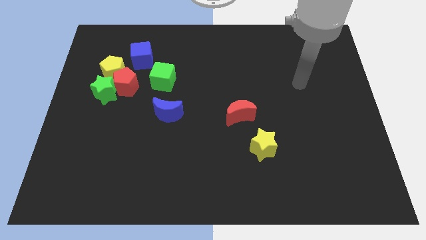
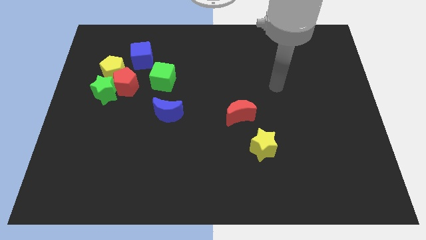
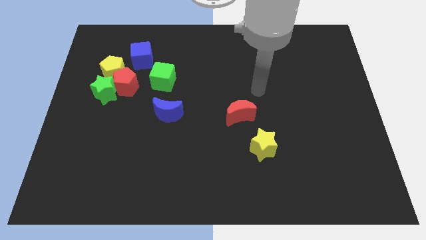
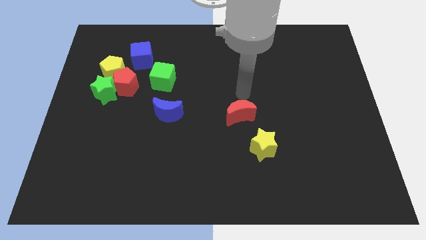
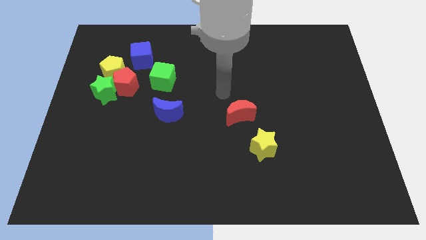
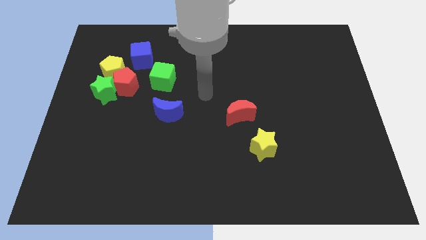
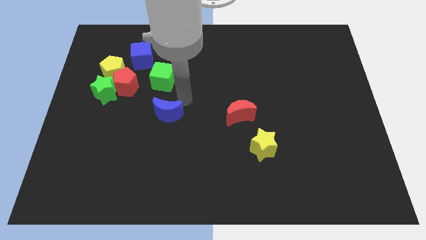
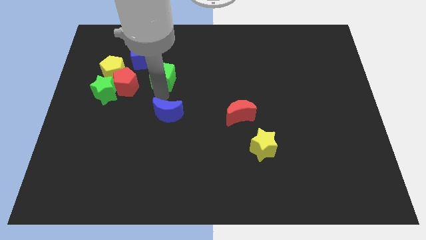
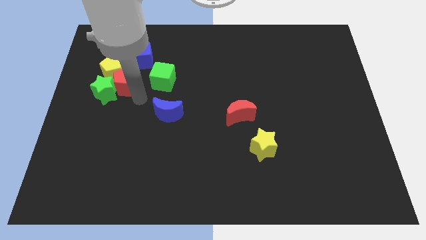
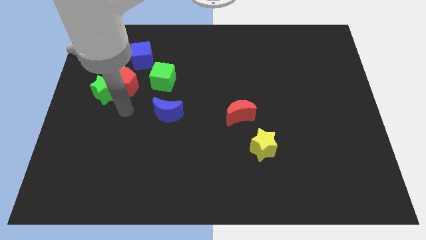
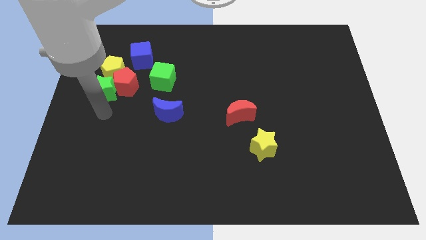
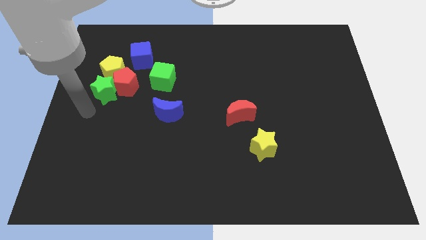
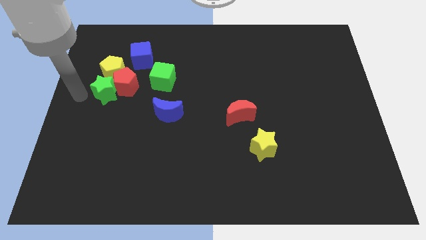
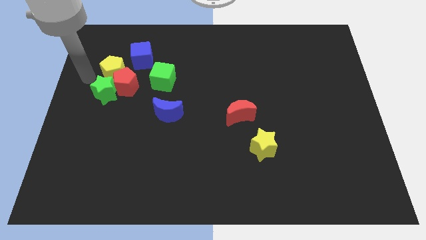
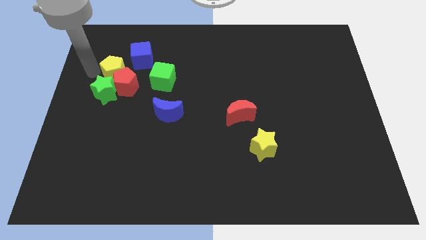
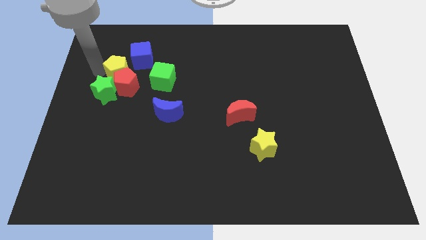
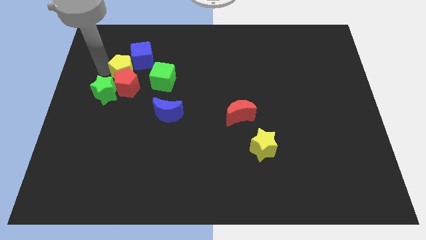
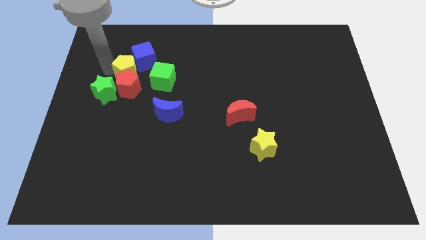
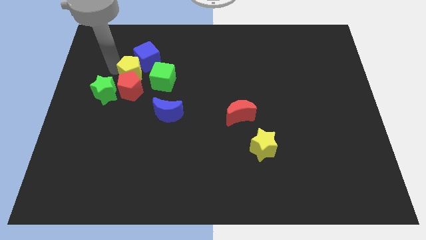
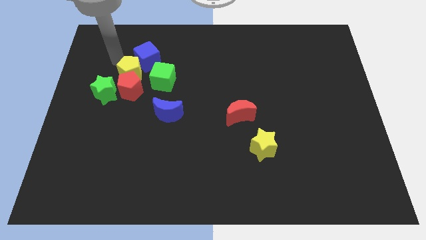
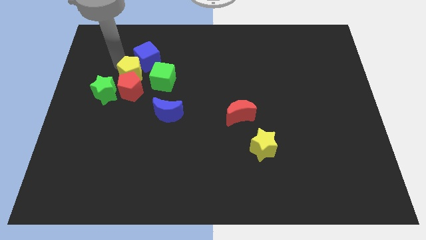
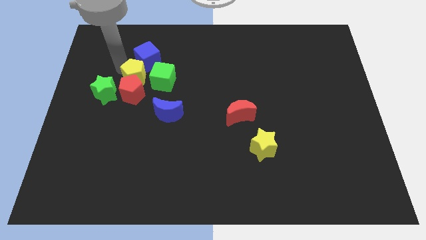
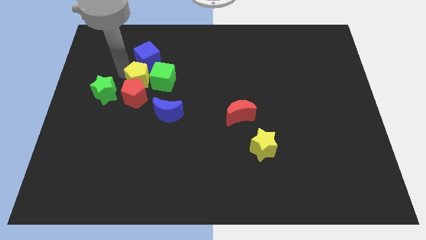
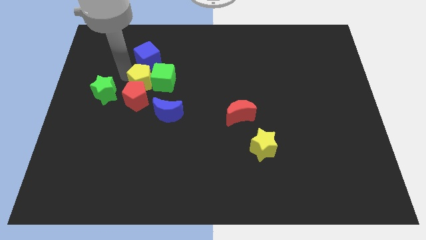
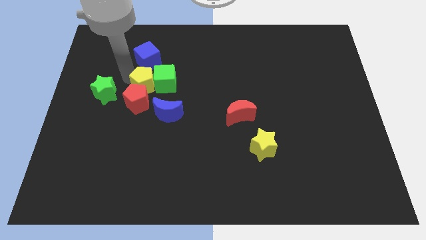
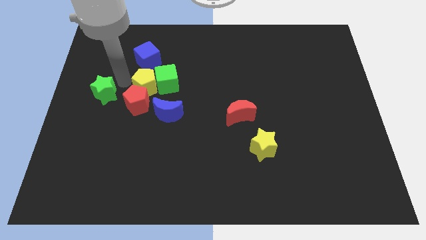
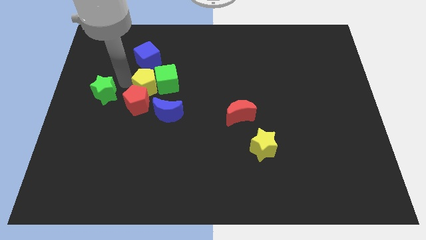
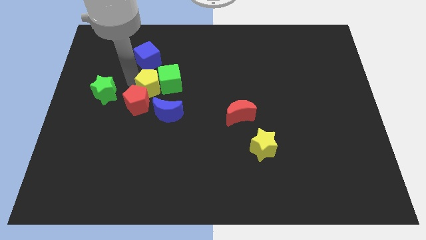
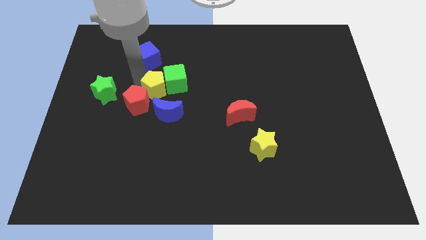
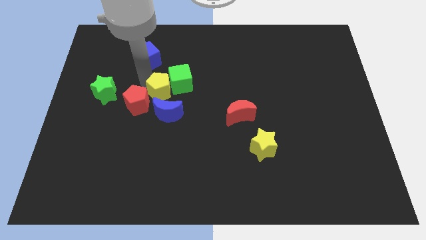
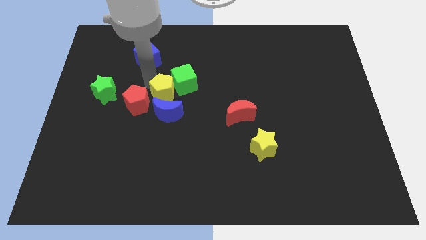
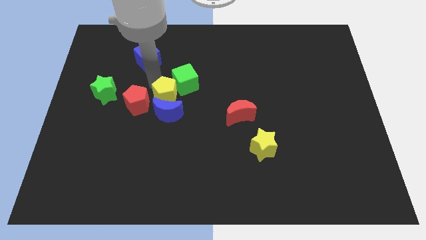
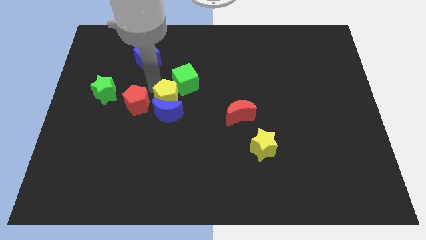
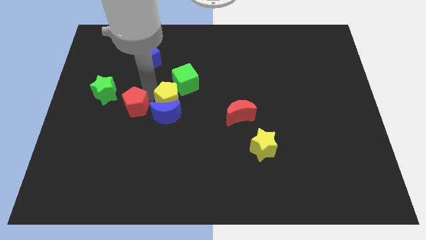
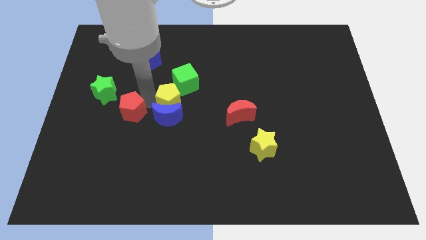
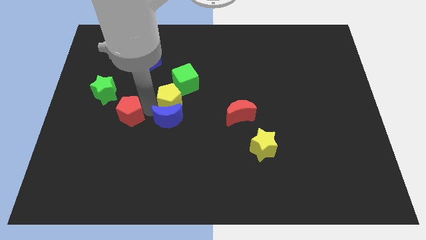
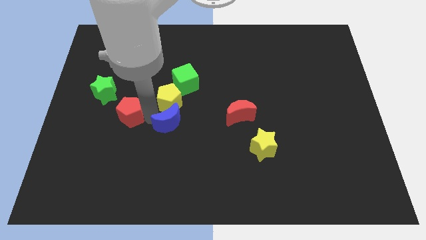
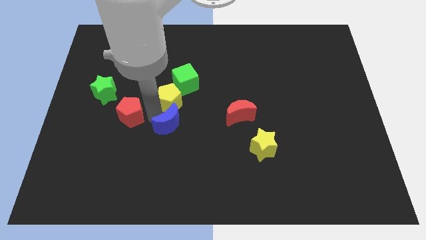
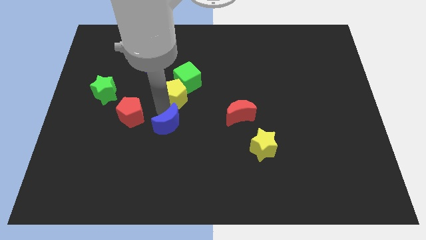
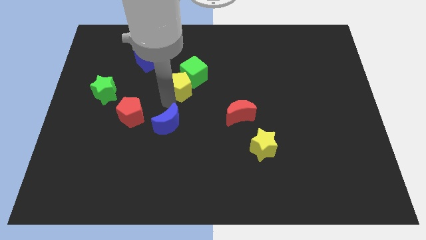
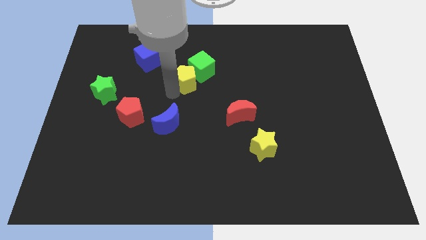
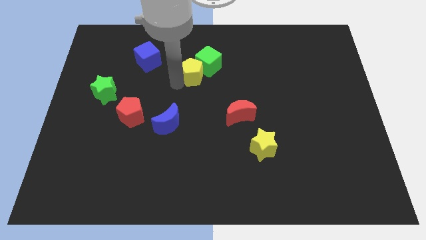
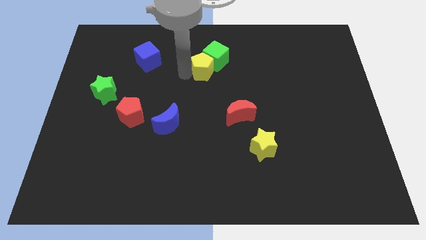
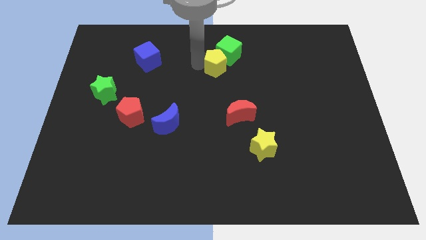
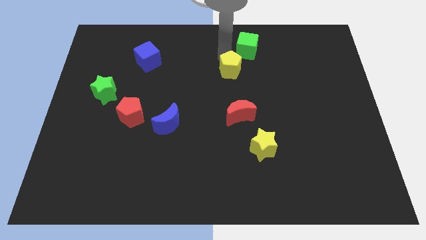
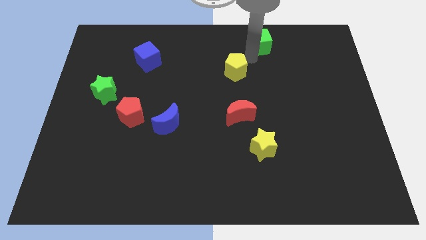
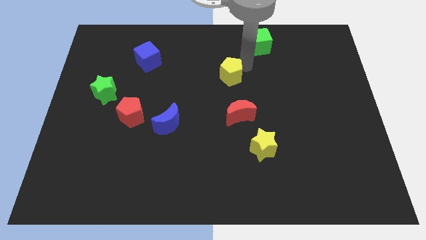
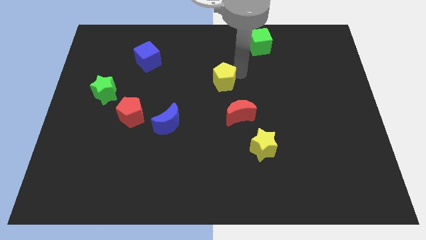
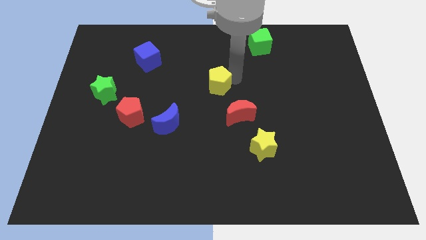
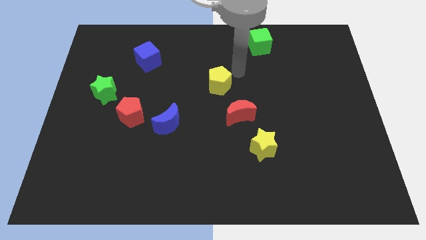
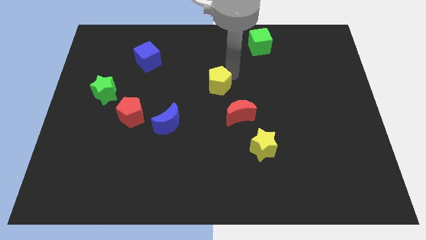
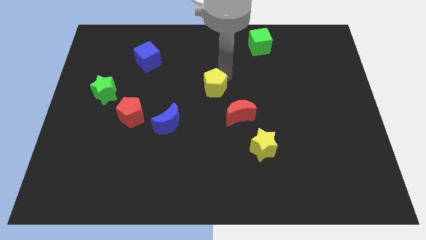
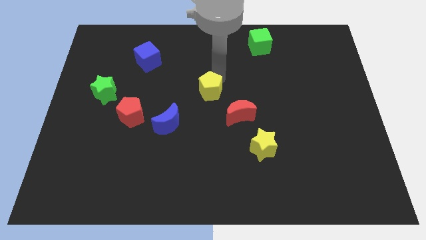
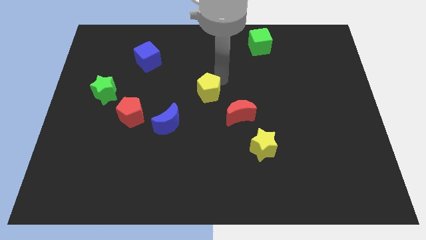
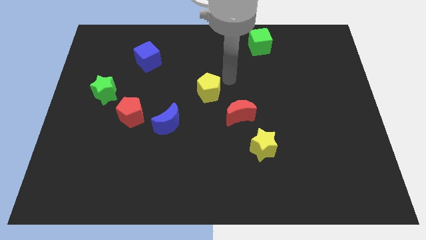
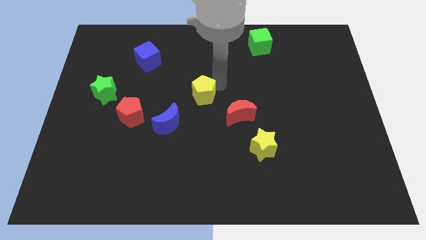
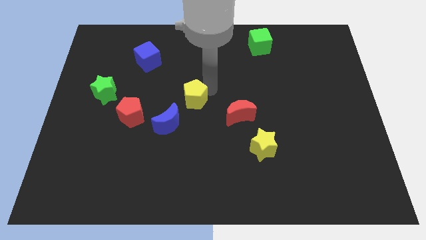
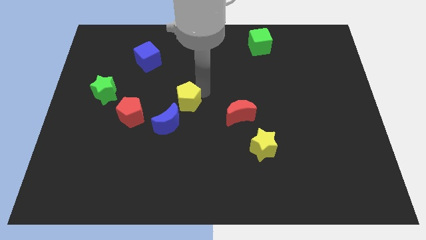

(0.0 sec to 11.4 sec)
put the yellow pentagon to the left side of the red moon
